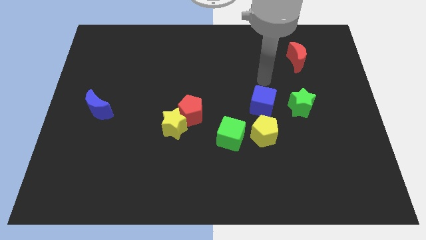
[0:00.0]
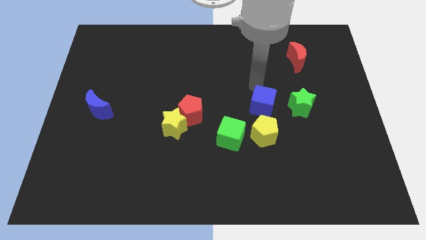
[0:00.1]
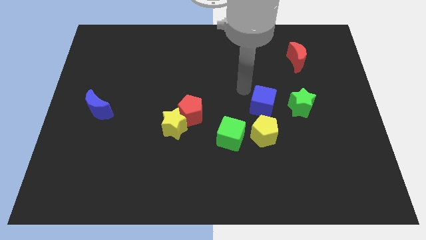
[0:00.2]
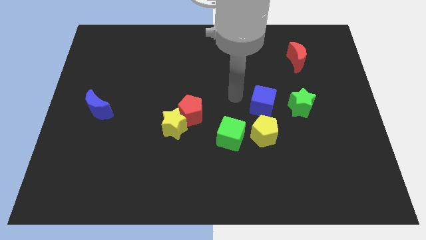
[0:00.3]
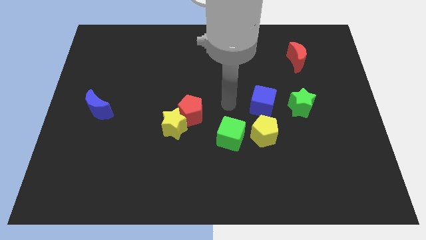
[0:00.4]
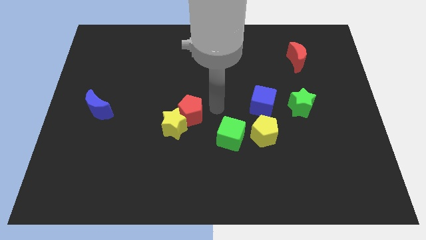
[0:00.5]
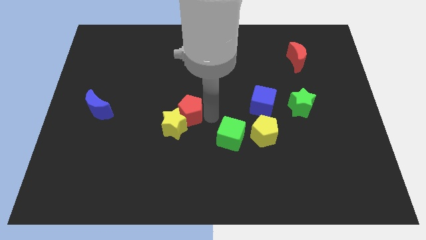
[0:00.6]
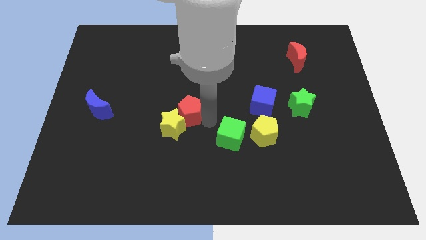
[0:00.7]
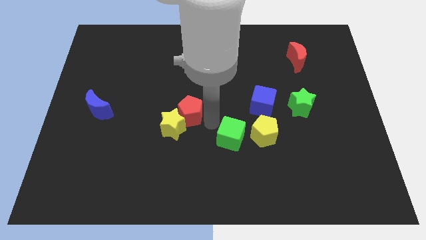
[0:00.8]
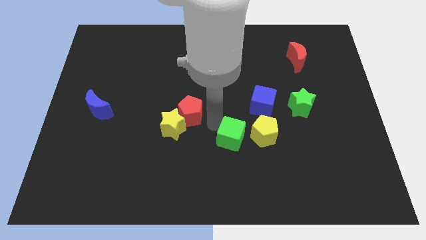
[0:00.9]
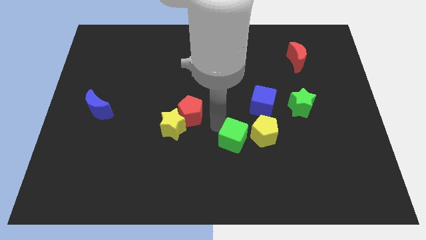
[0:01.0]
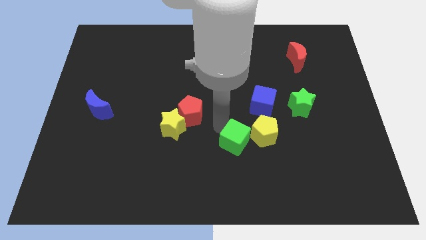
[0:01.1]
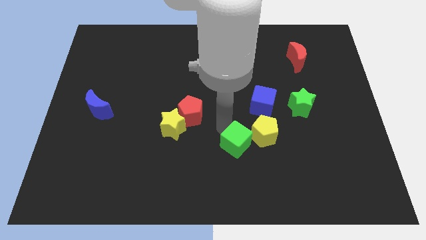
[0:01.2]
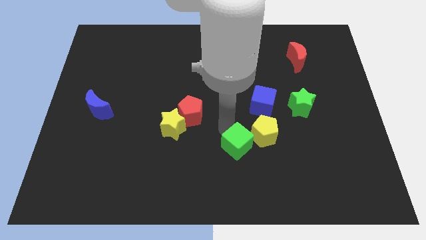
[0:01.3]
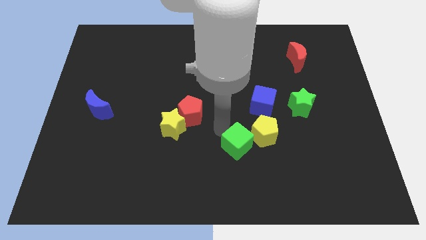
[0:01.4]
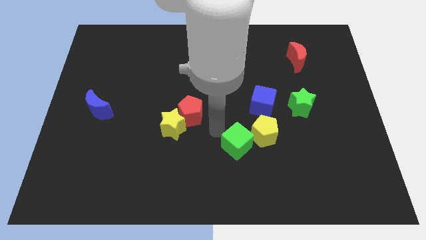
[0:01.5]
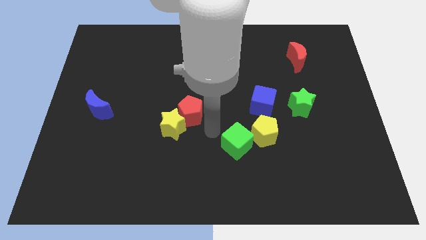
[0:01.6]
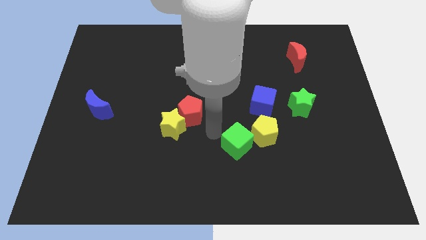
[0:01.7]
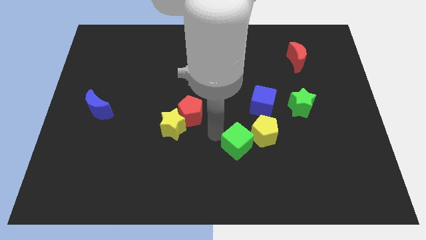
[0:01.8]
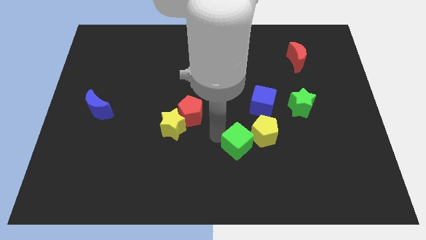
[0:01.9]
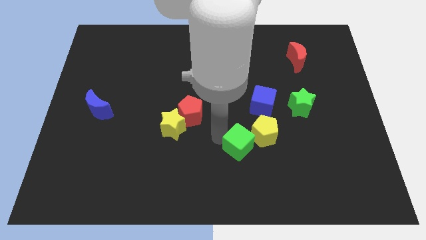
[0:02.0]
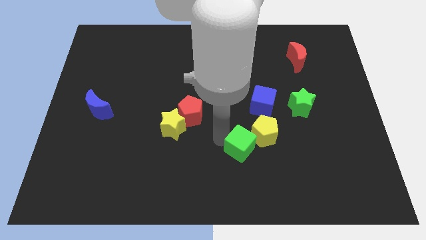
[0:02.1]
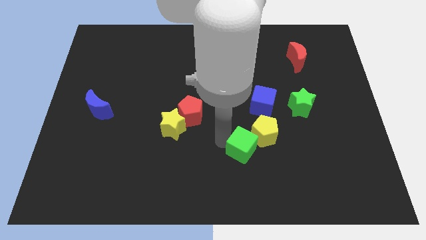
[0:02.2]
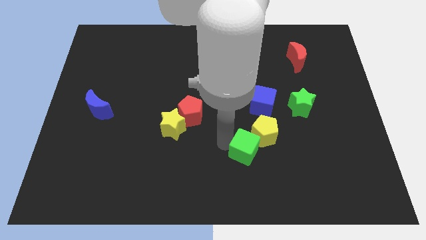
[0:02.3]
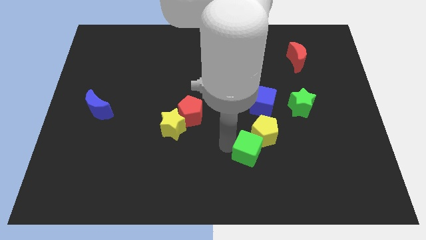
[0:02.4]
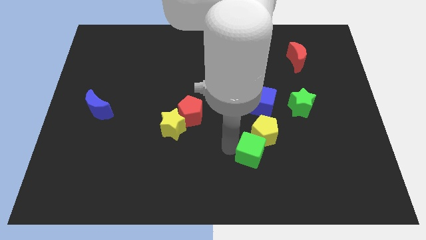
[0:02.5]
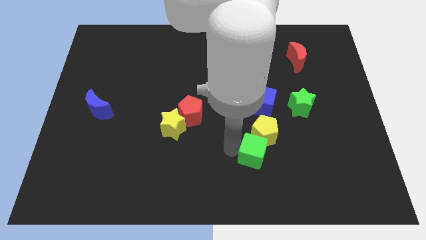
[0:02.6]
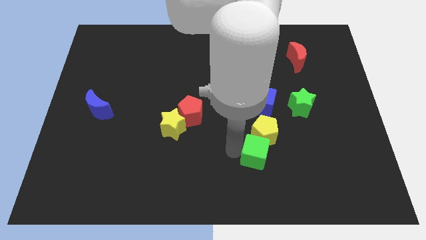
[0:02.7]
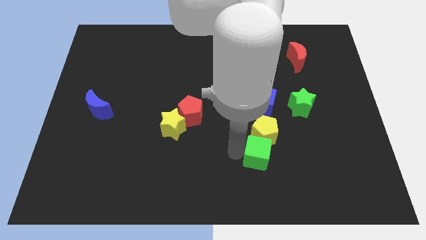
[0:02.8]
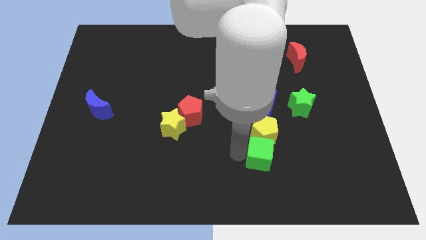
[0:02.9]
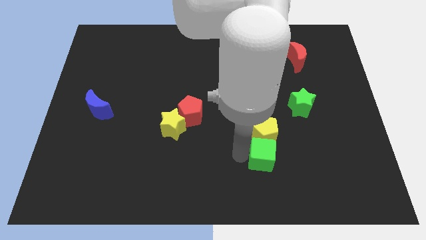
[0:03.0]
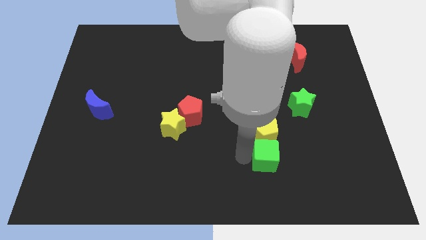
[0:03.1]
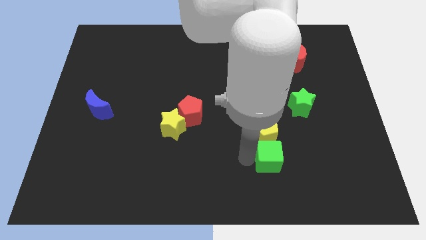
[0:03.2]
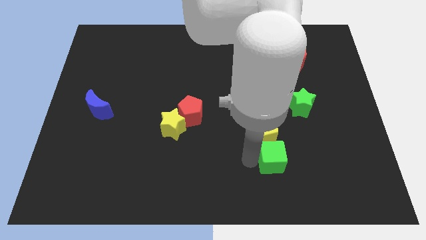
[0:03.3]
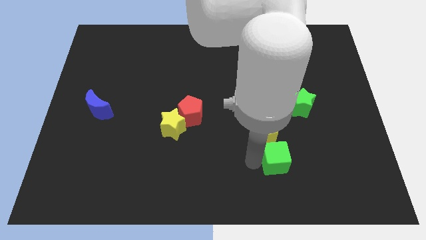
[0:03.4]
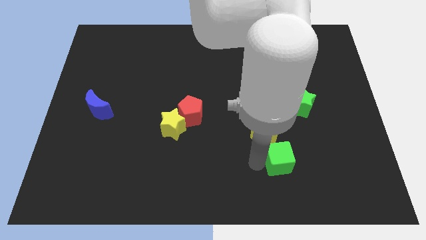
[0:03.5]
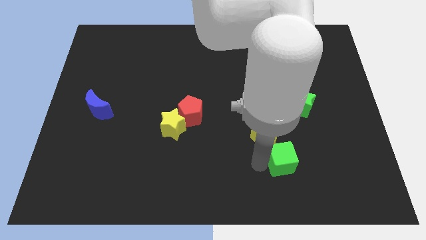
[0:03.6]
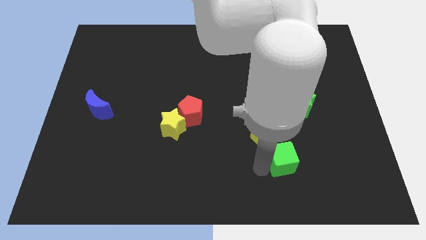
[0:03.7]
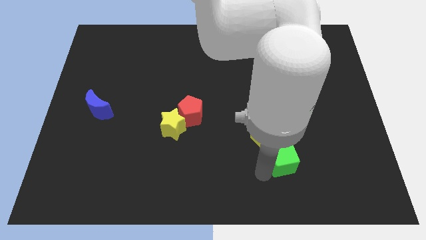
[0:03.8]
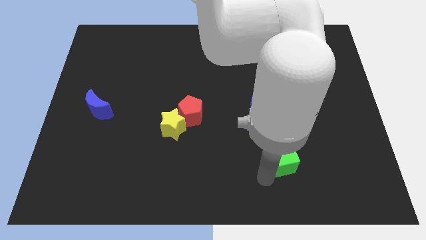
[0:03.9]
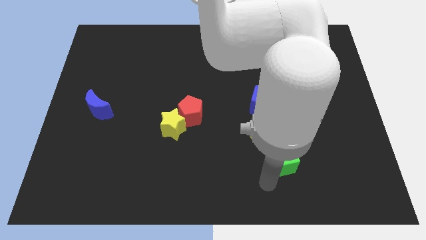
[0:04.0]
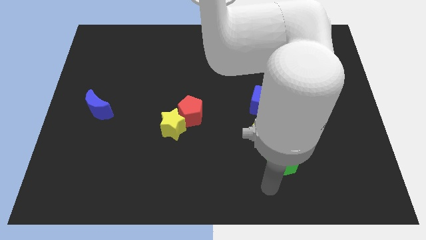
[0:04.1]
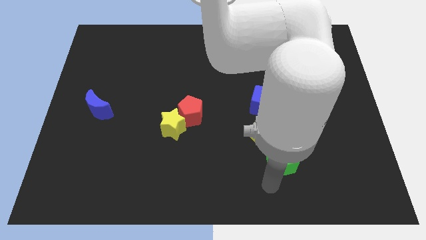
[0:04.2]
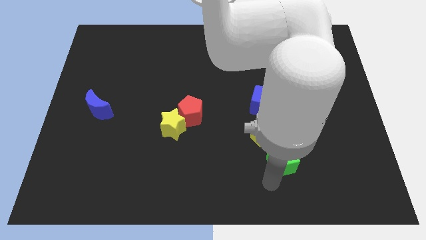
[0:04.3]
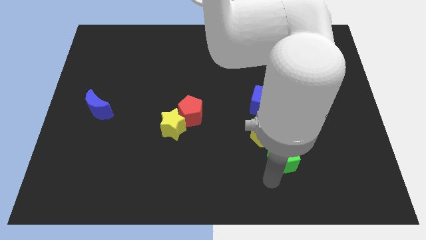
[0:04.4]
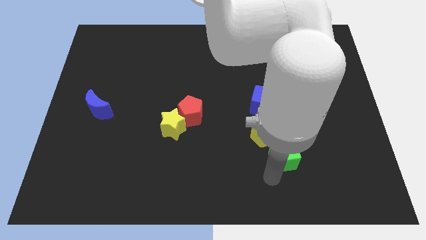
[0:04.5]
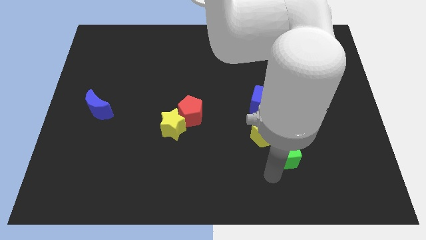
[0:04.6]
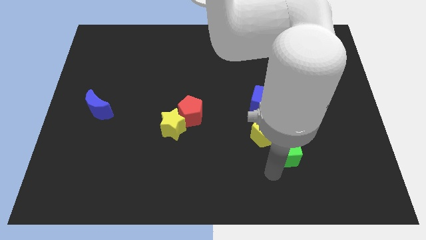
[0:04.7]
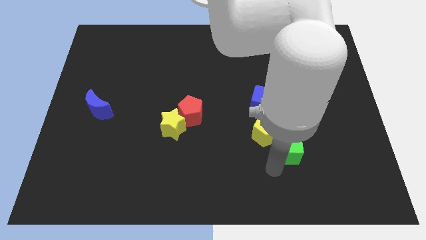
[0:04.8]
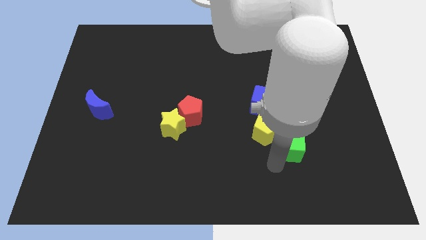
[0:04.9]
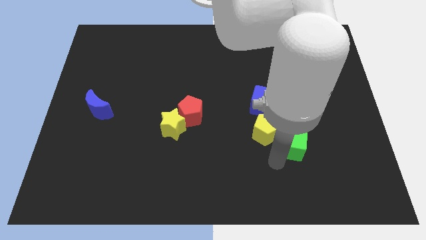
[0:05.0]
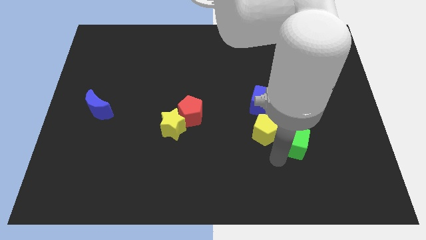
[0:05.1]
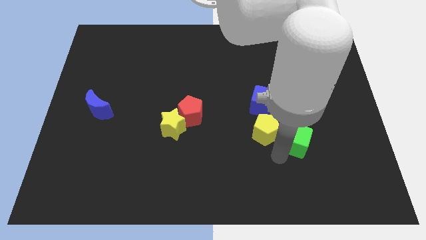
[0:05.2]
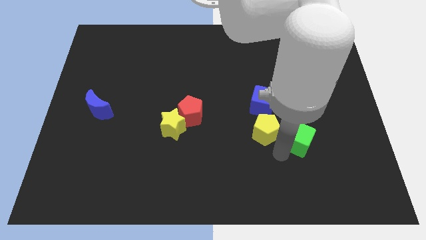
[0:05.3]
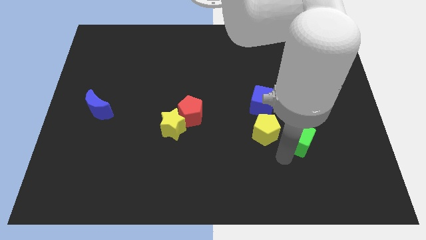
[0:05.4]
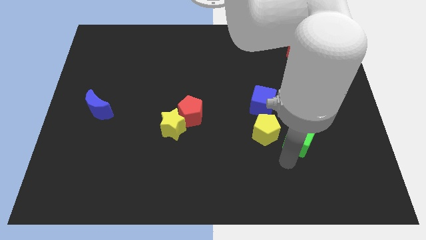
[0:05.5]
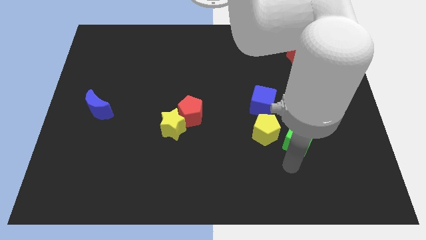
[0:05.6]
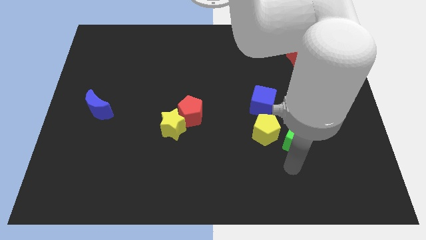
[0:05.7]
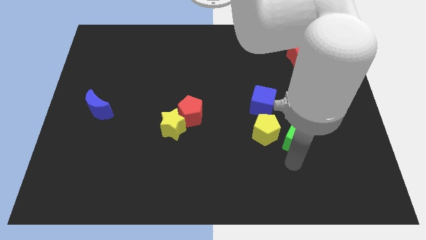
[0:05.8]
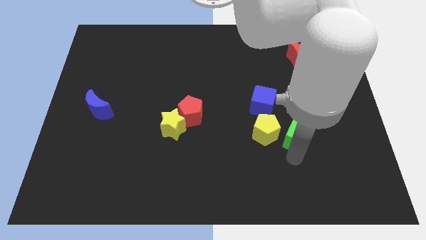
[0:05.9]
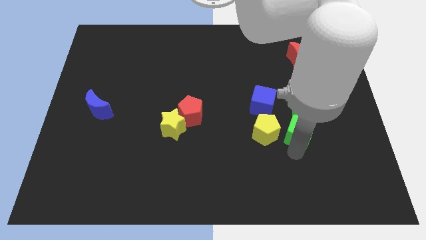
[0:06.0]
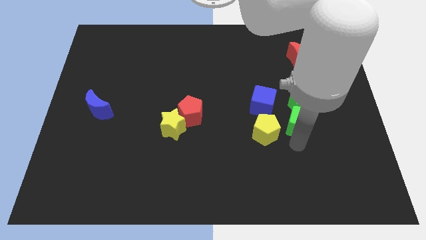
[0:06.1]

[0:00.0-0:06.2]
push the green cube next to the green star

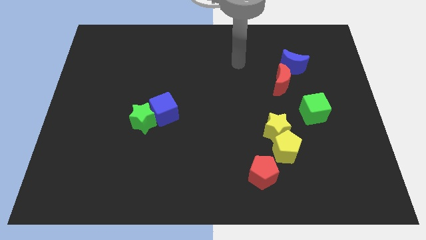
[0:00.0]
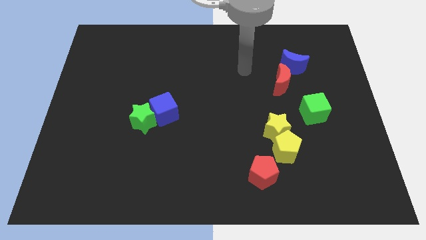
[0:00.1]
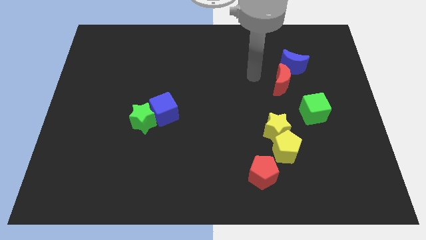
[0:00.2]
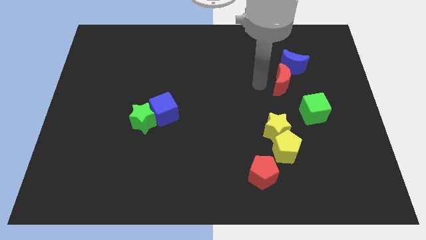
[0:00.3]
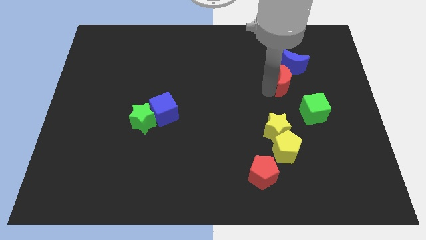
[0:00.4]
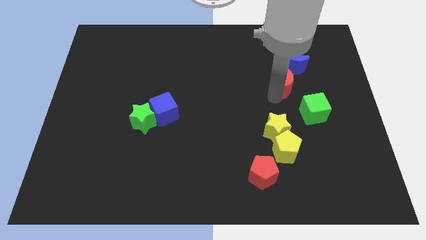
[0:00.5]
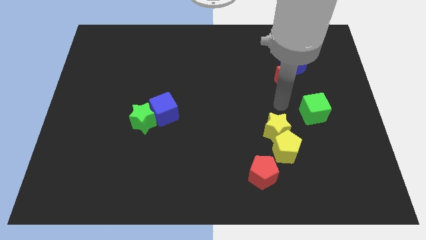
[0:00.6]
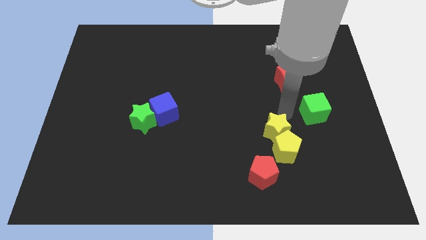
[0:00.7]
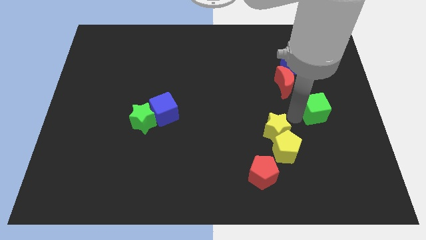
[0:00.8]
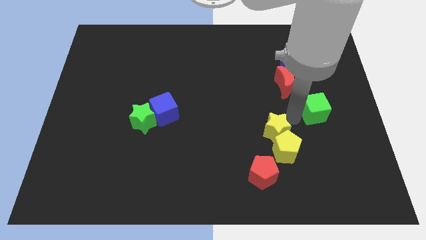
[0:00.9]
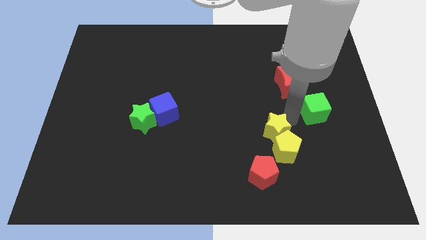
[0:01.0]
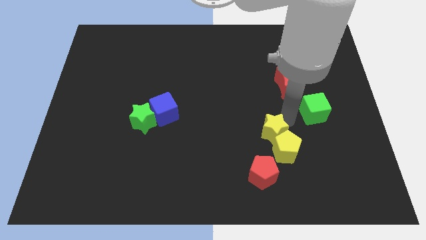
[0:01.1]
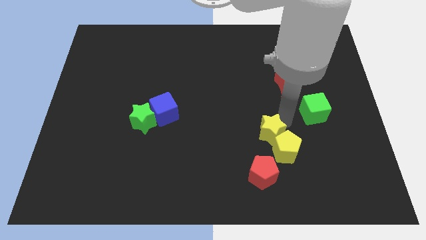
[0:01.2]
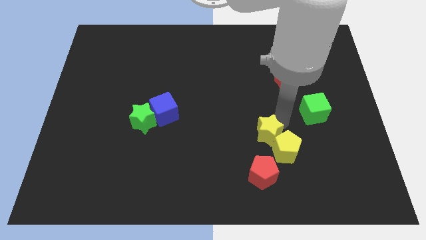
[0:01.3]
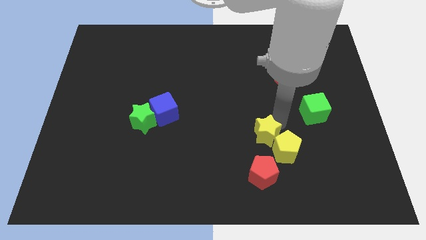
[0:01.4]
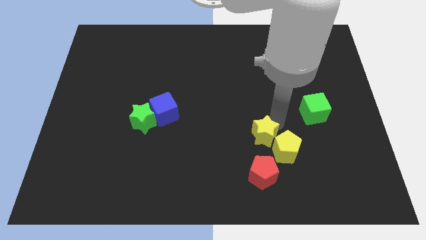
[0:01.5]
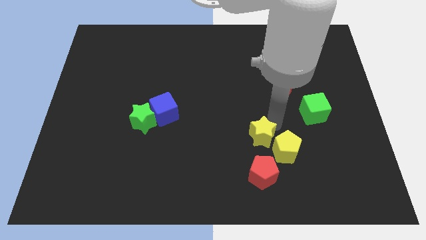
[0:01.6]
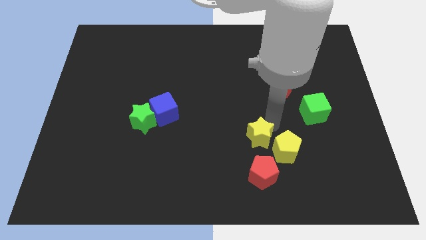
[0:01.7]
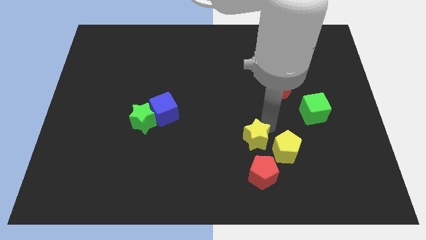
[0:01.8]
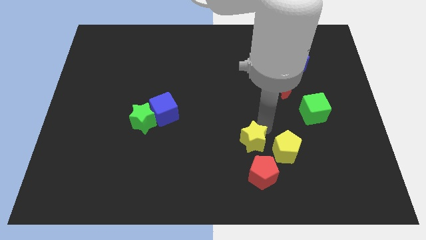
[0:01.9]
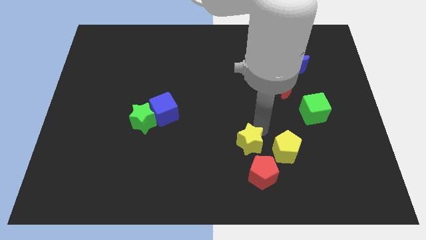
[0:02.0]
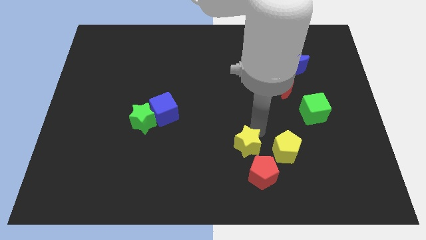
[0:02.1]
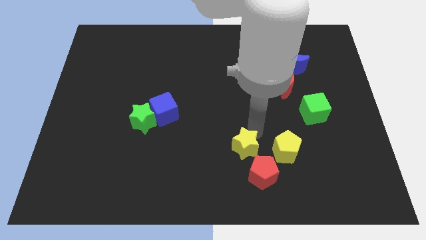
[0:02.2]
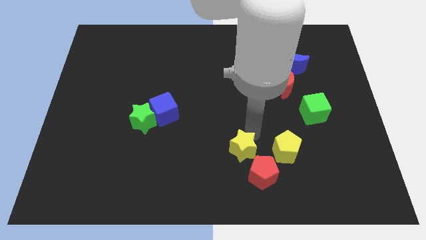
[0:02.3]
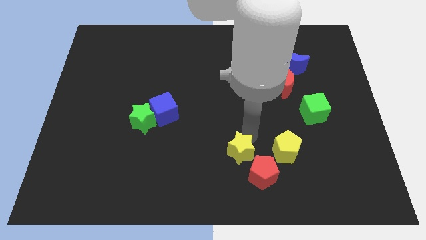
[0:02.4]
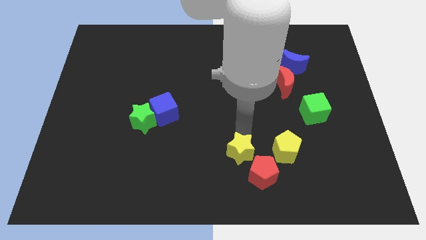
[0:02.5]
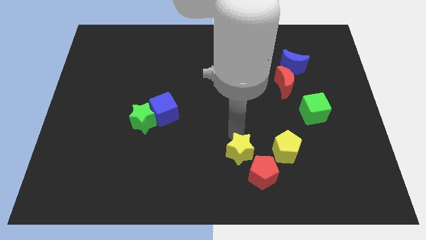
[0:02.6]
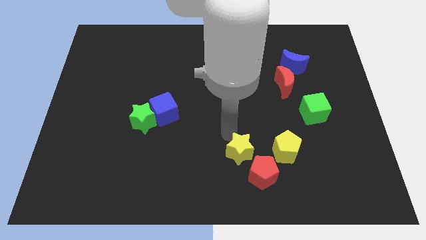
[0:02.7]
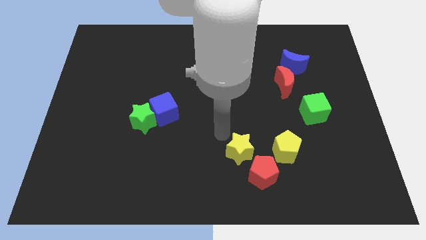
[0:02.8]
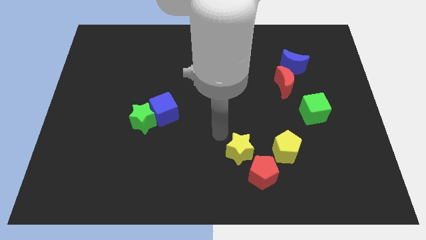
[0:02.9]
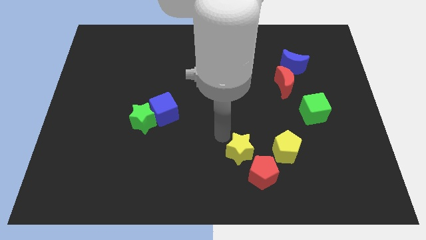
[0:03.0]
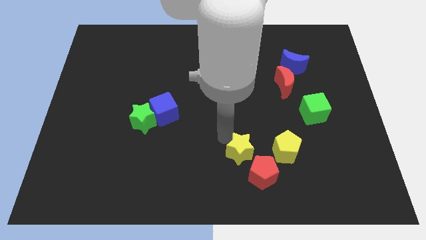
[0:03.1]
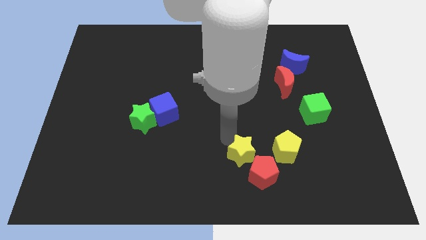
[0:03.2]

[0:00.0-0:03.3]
move the yellow star to the red pentagon
